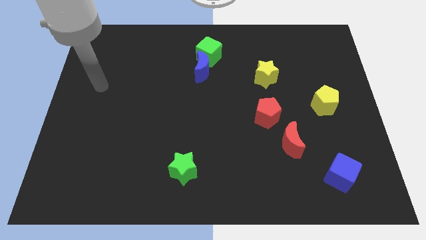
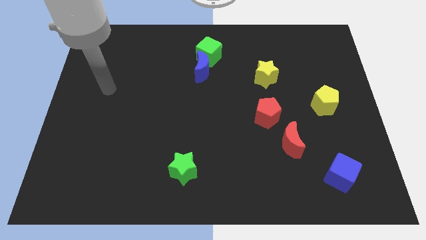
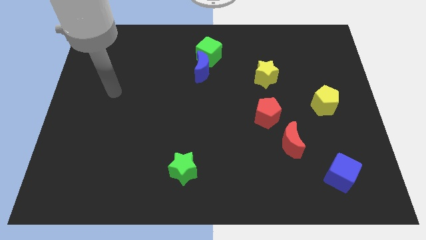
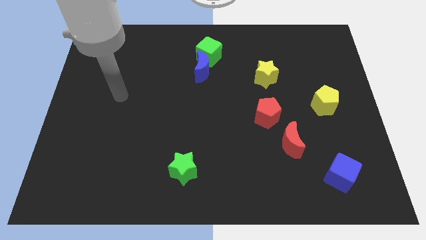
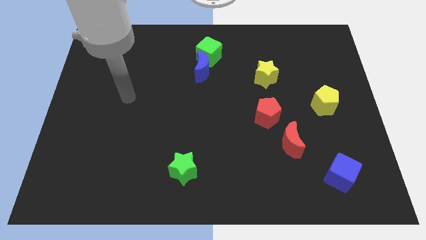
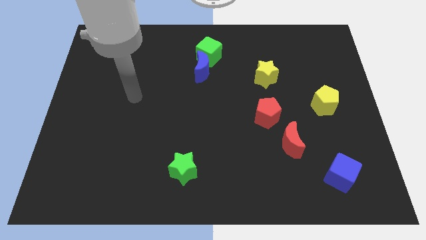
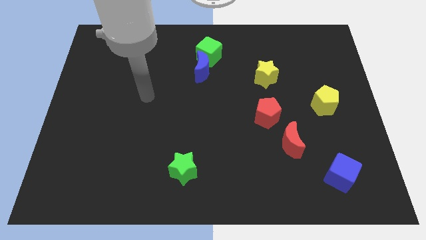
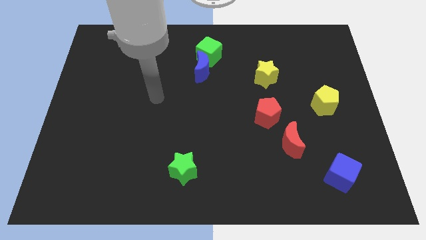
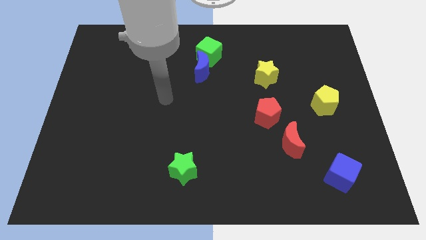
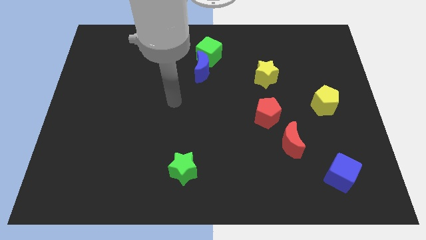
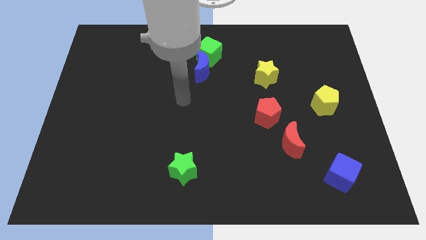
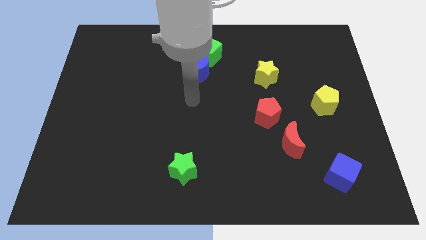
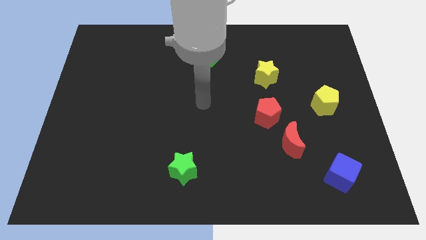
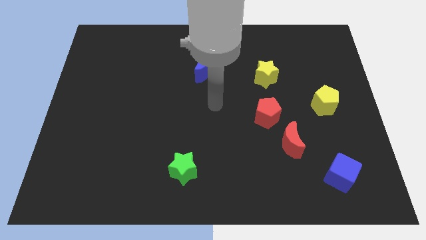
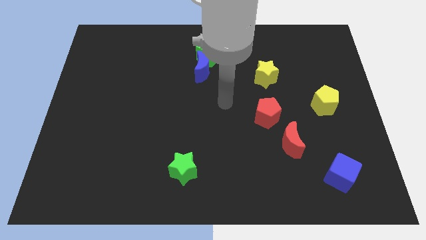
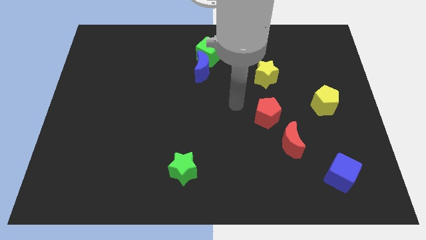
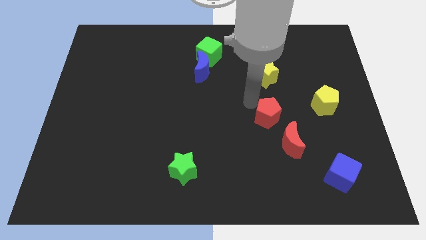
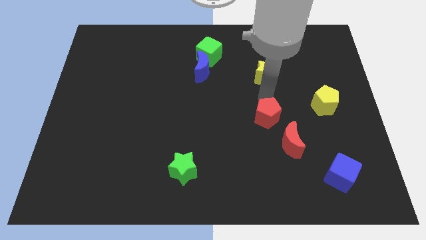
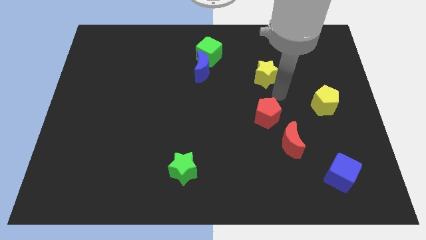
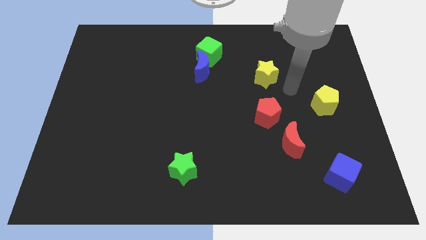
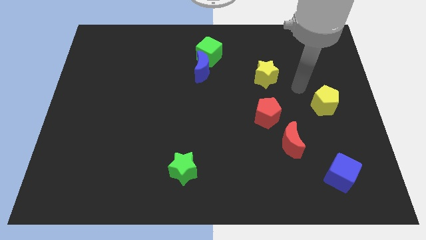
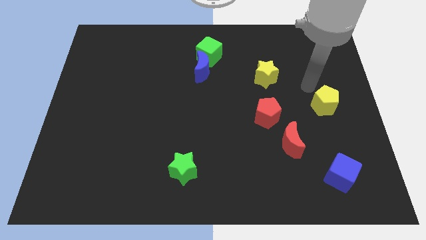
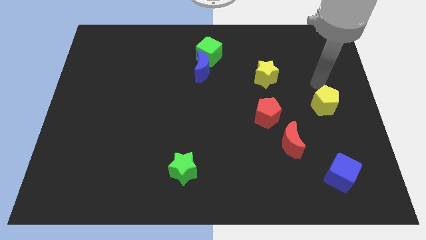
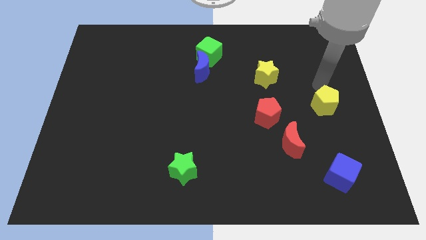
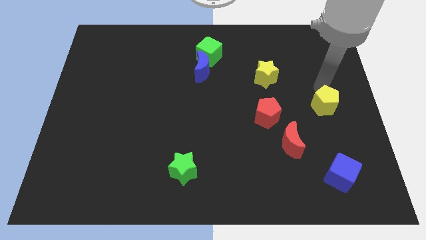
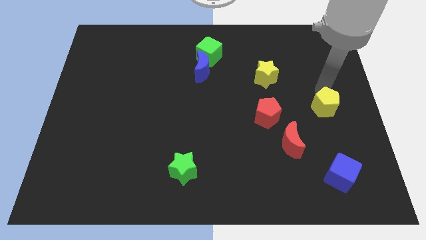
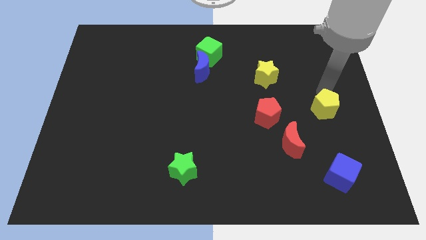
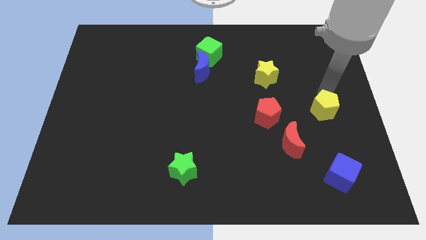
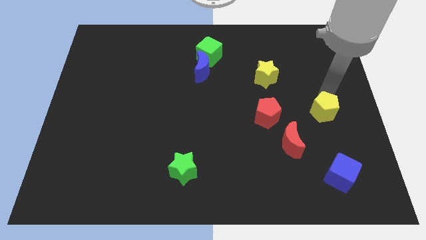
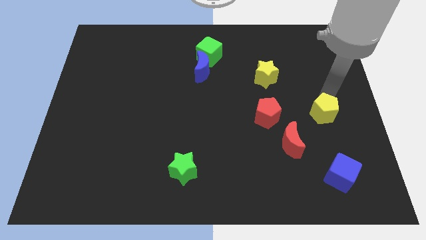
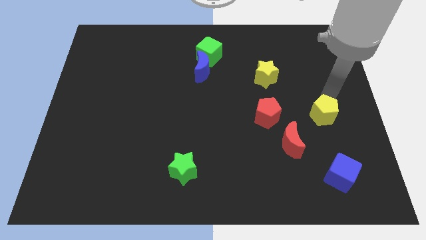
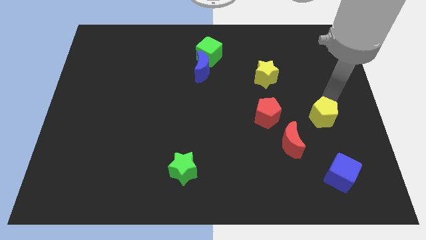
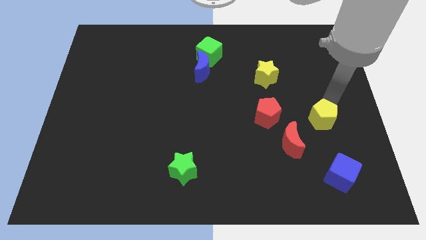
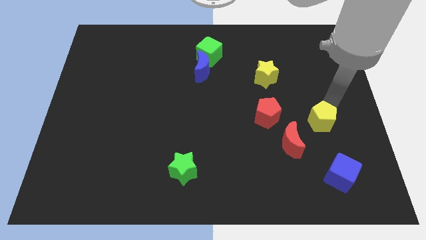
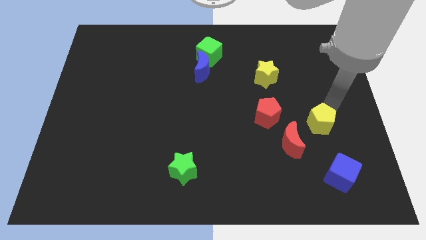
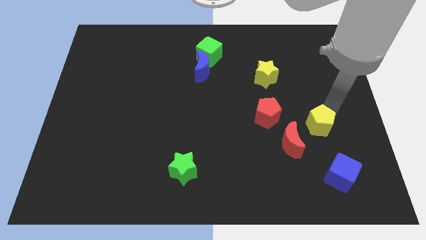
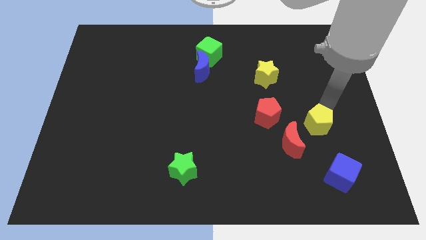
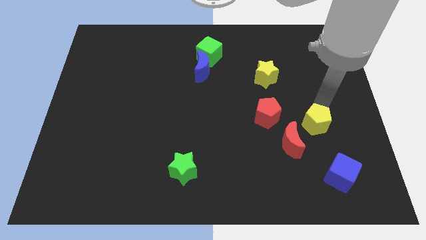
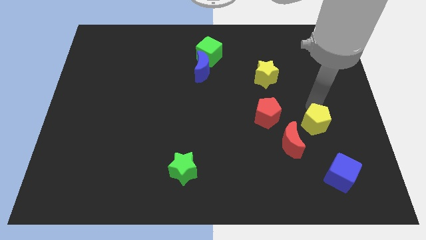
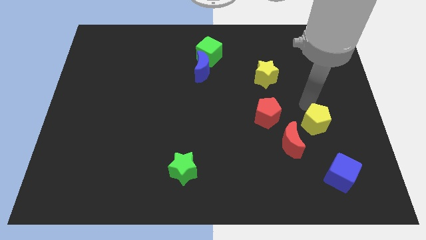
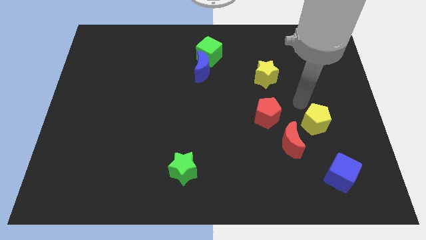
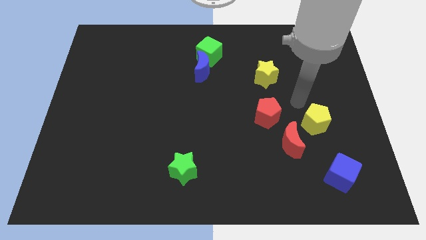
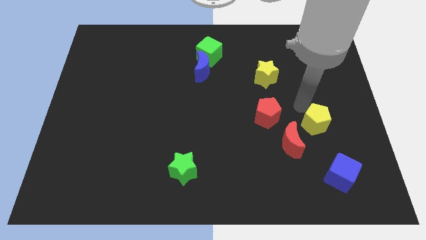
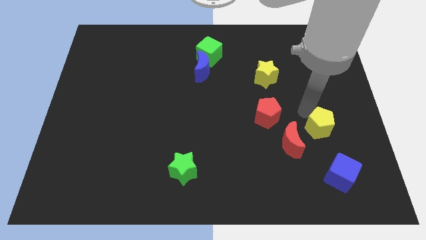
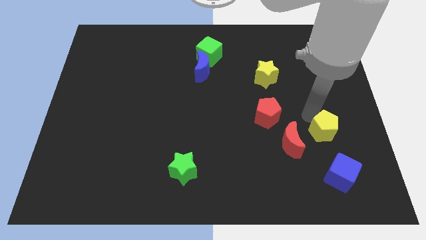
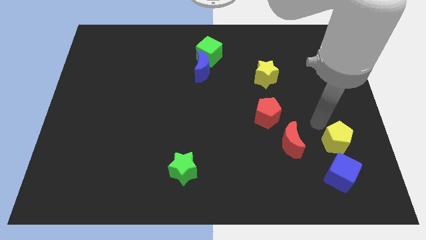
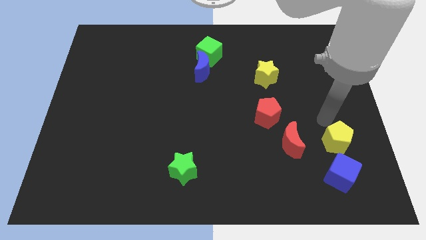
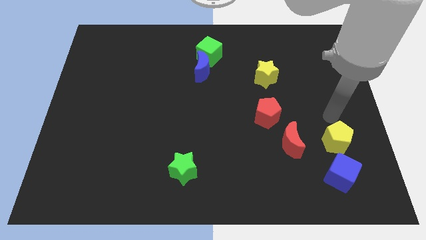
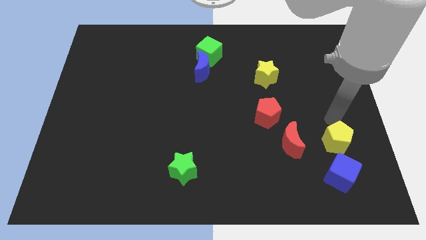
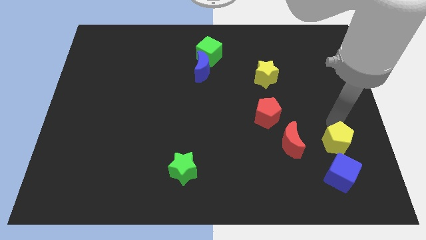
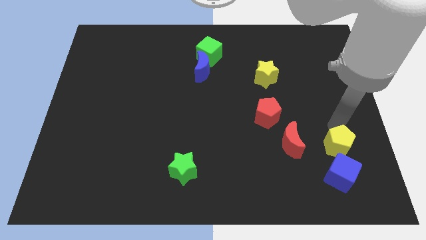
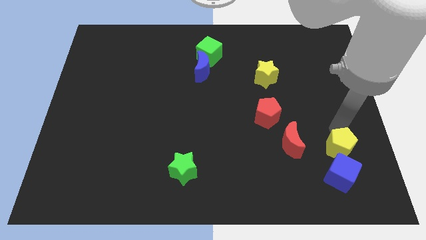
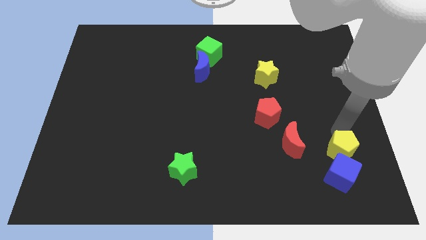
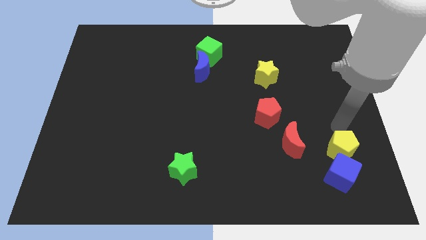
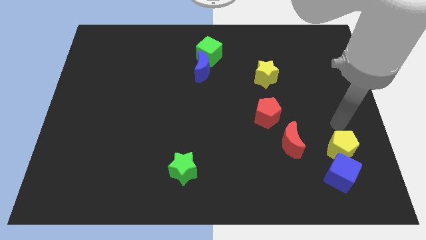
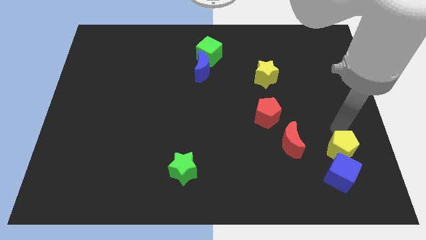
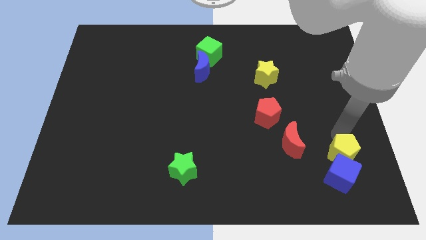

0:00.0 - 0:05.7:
push the yellow pentagon next to the blue cube

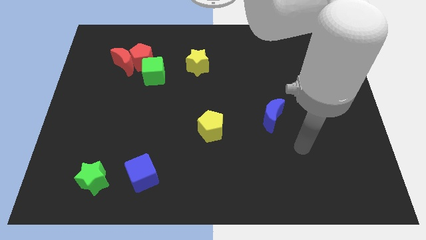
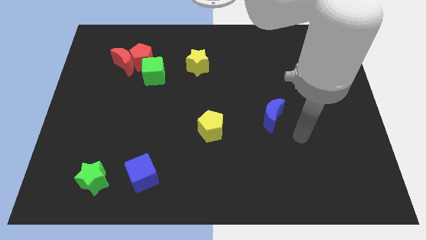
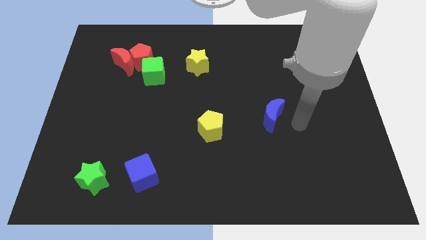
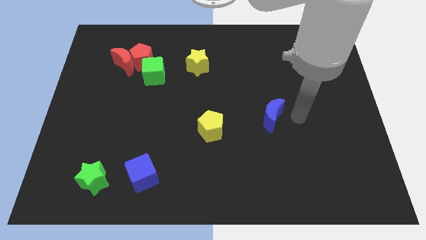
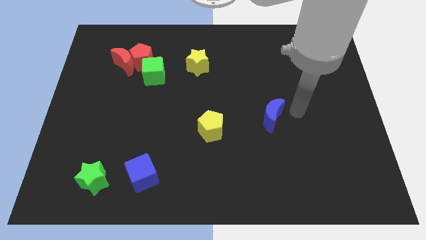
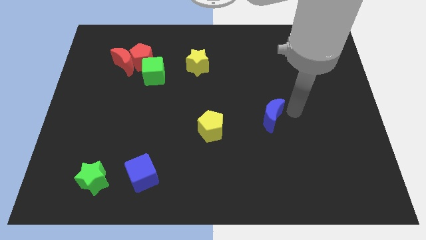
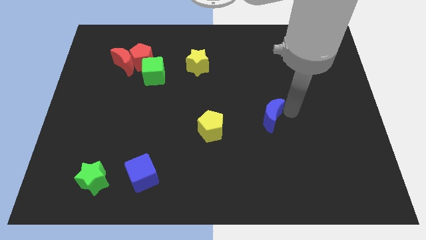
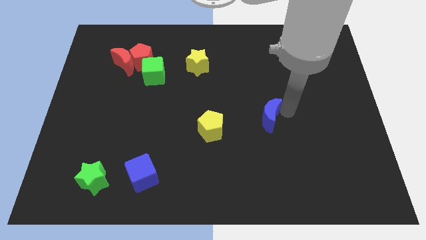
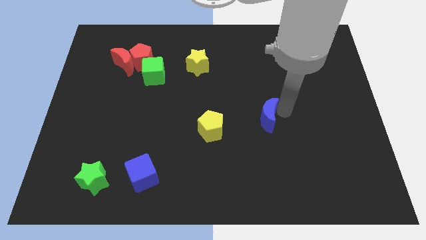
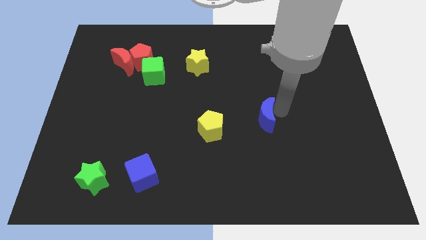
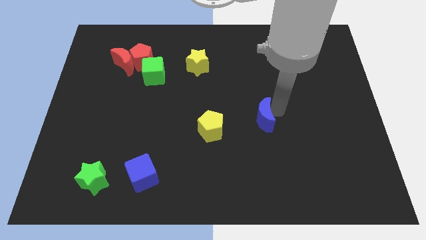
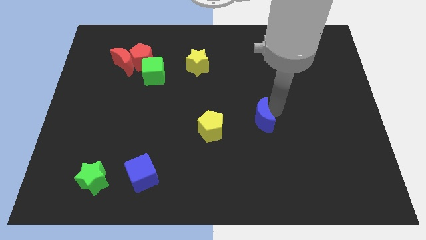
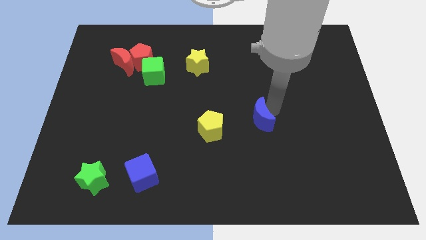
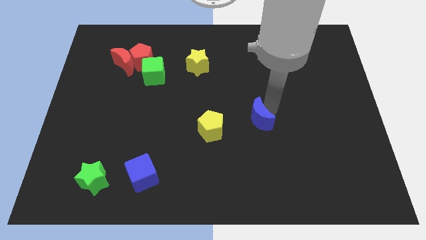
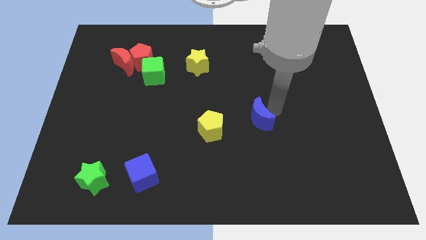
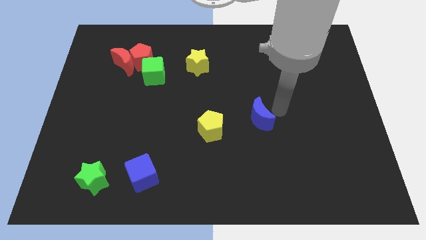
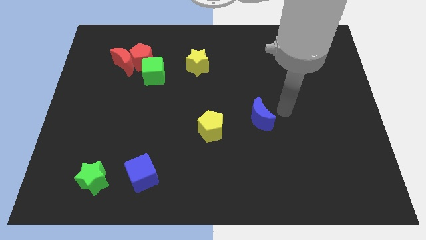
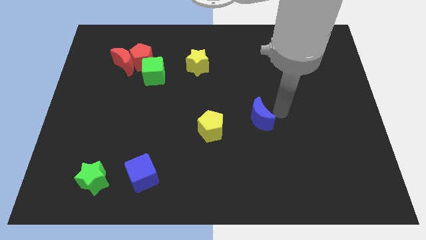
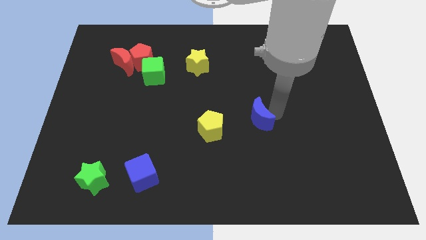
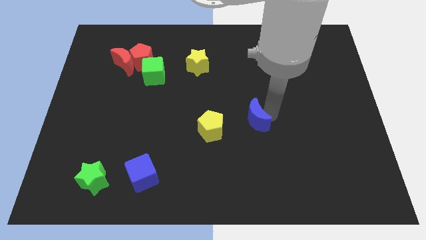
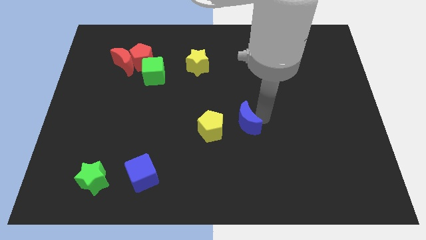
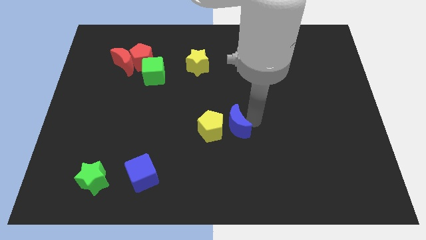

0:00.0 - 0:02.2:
move the blue moon to the yellow pentagon

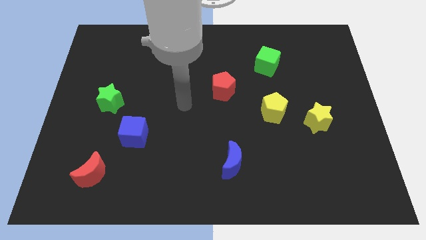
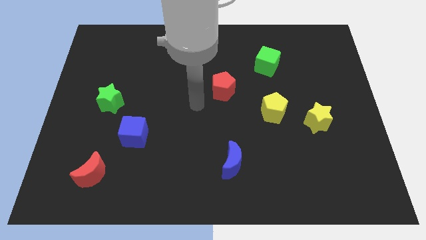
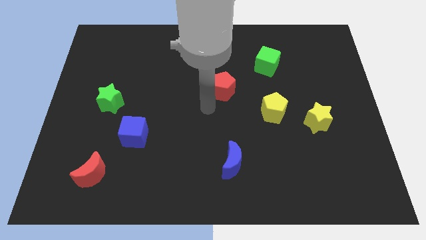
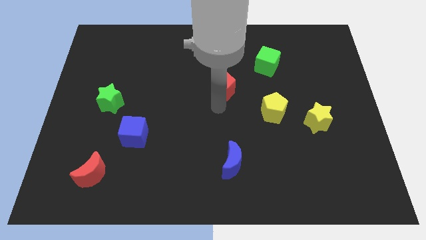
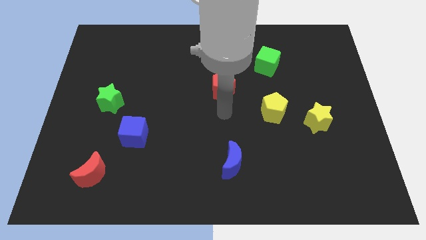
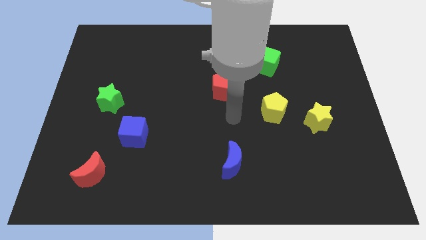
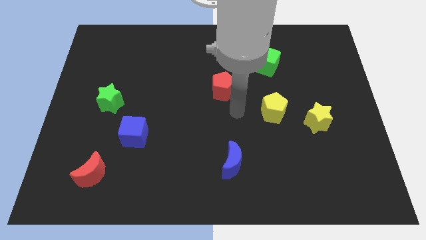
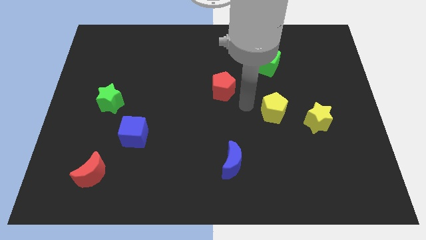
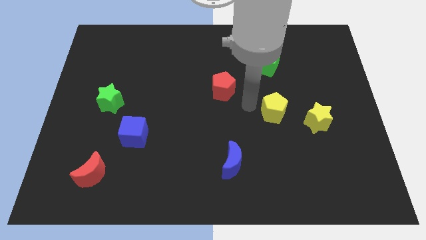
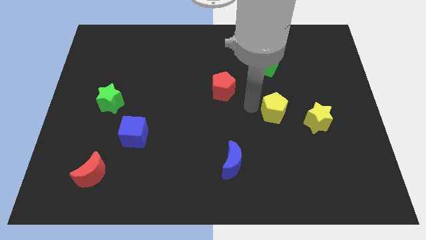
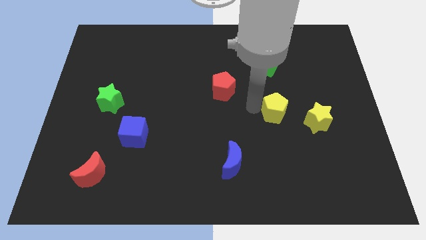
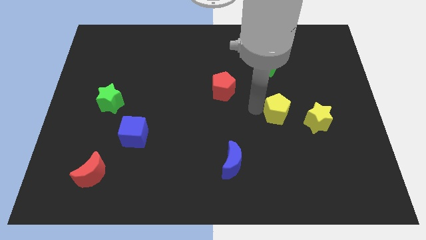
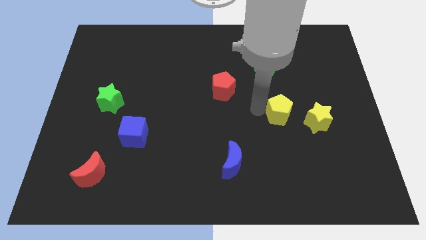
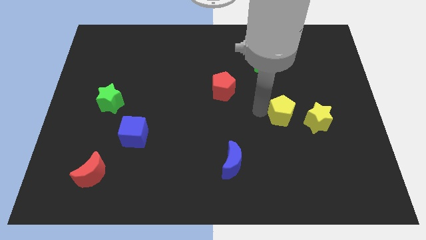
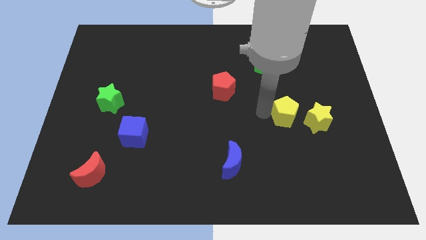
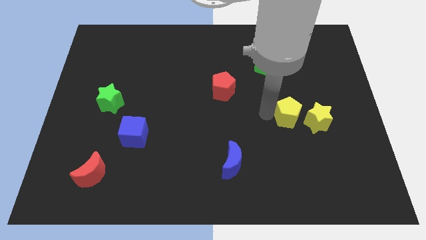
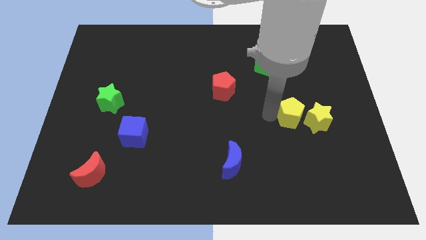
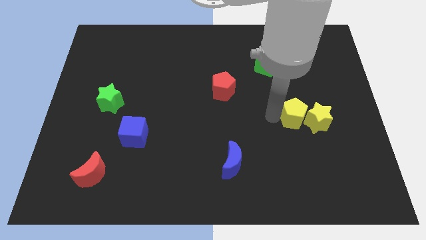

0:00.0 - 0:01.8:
move the yellow pentagon towards the yellow star
